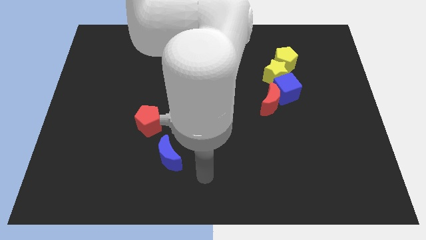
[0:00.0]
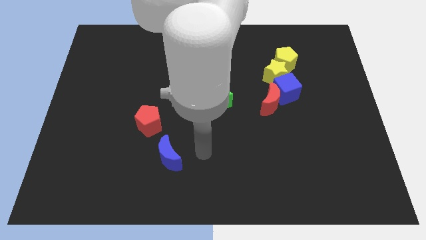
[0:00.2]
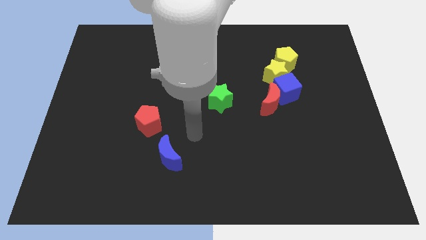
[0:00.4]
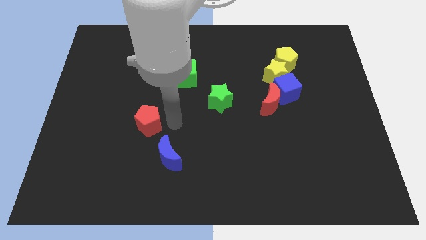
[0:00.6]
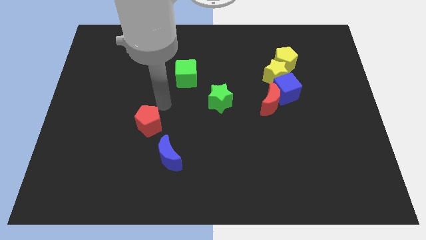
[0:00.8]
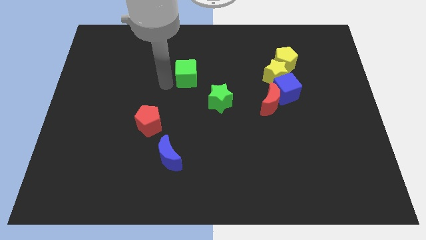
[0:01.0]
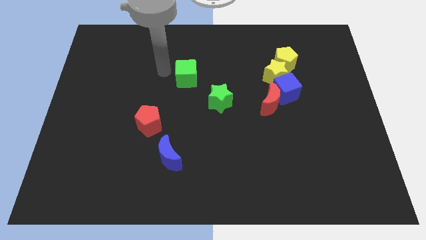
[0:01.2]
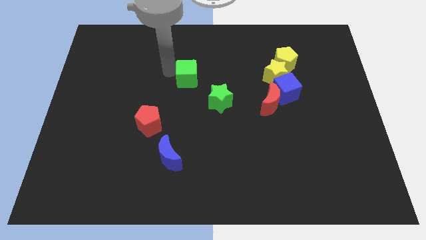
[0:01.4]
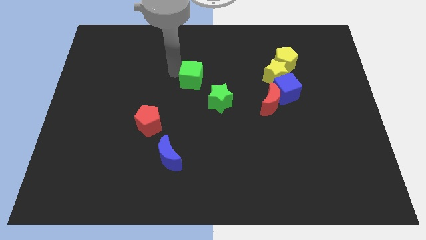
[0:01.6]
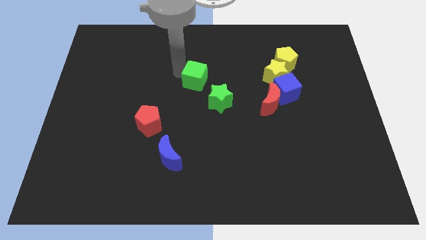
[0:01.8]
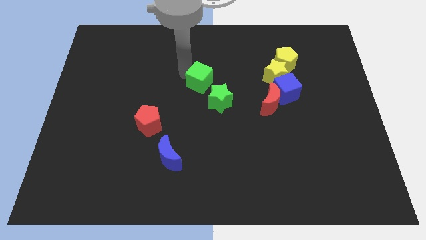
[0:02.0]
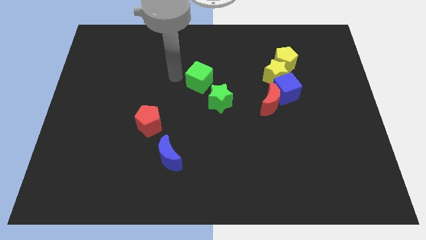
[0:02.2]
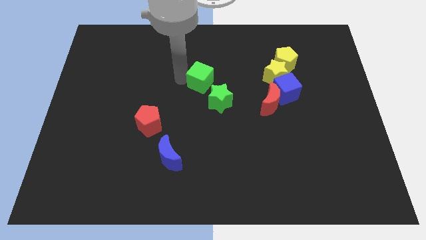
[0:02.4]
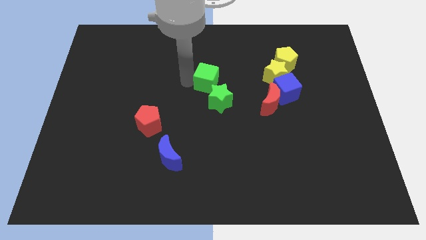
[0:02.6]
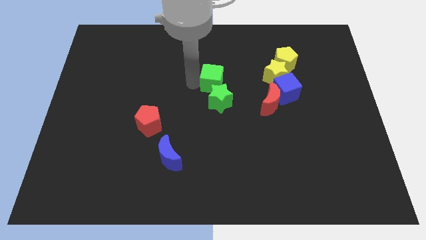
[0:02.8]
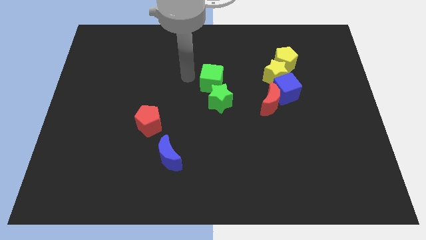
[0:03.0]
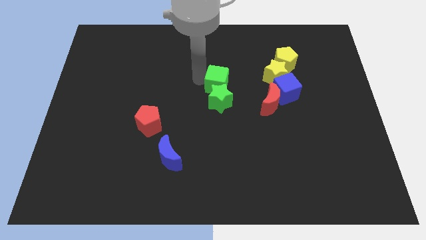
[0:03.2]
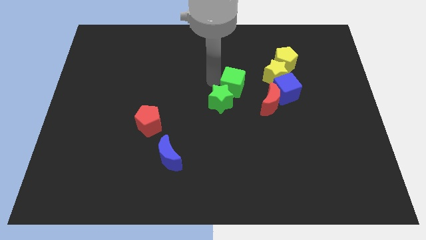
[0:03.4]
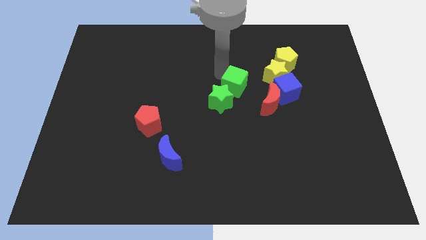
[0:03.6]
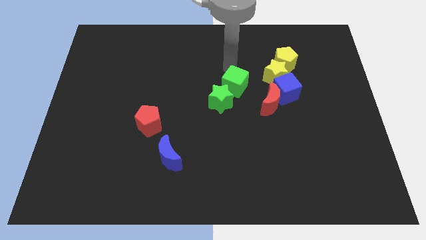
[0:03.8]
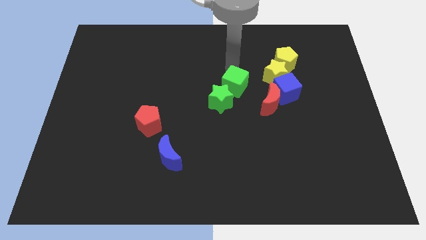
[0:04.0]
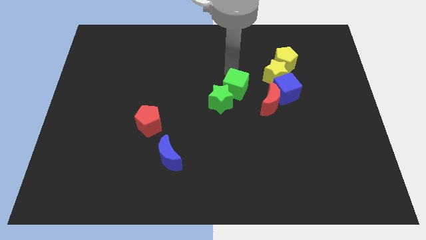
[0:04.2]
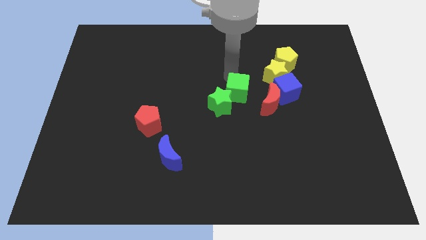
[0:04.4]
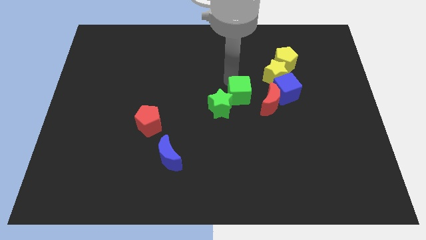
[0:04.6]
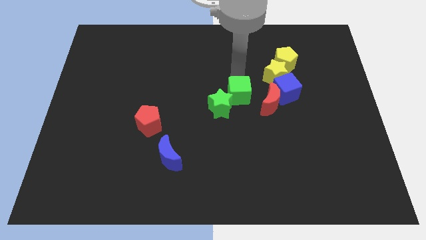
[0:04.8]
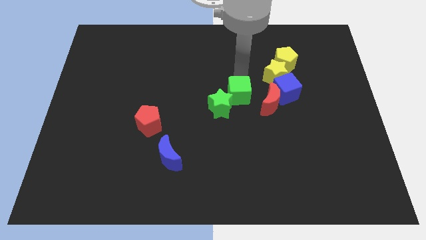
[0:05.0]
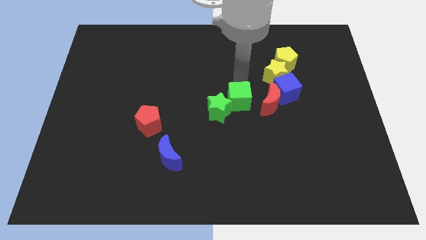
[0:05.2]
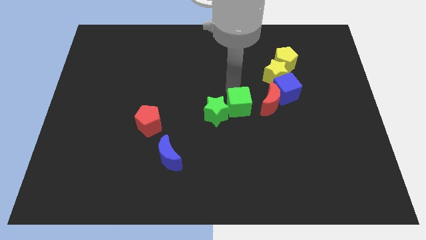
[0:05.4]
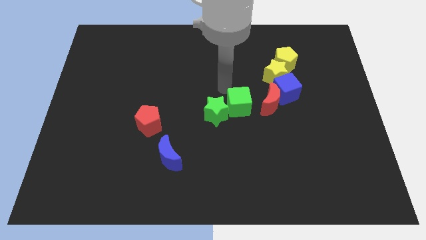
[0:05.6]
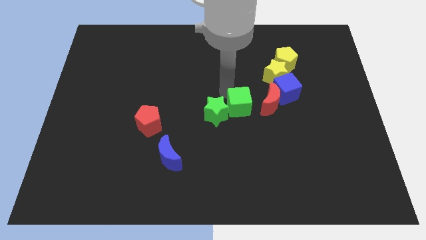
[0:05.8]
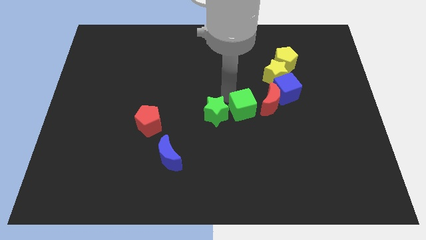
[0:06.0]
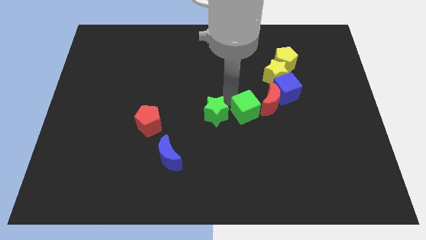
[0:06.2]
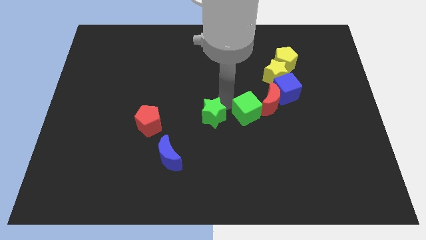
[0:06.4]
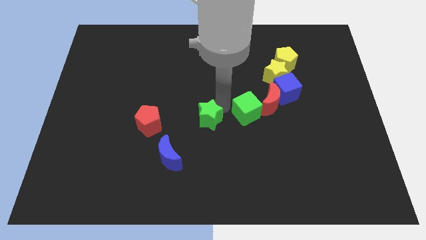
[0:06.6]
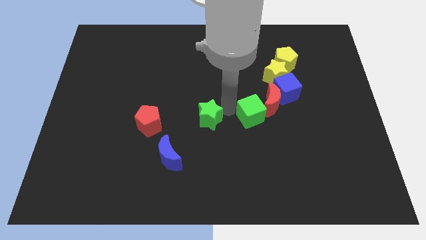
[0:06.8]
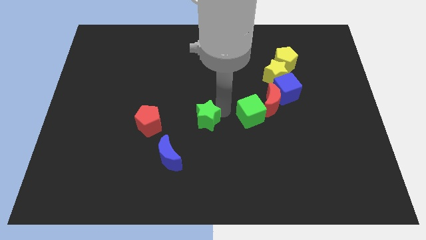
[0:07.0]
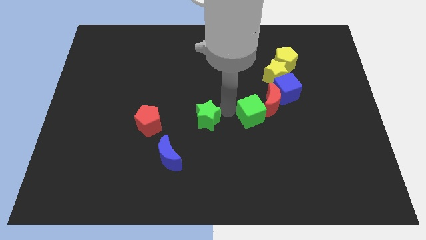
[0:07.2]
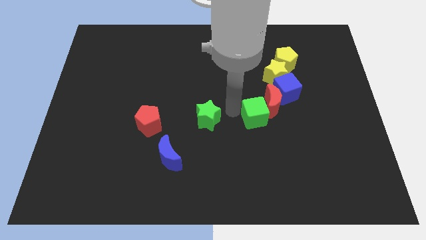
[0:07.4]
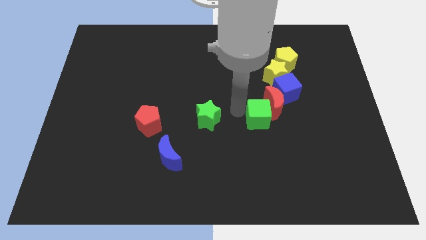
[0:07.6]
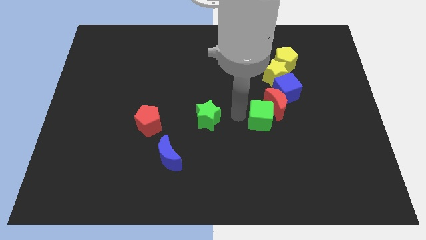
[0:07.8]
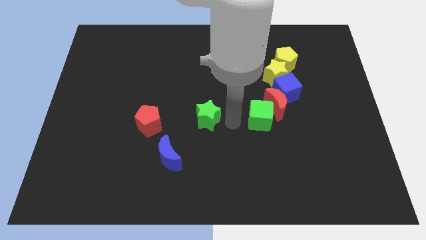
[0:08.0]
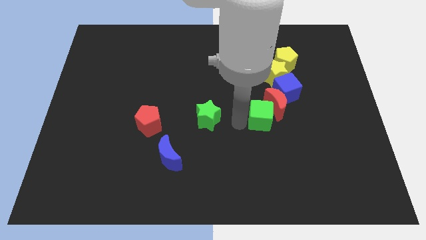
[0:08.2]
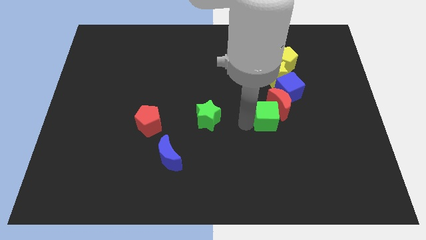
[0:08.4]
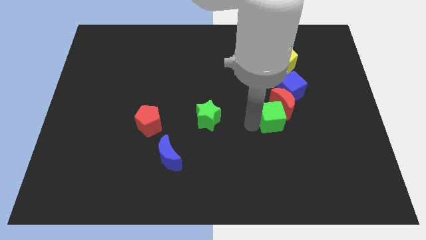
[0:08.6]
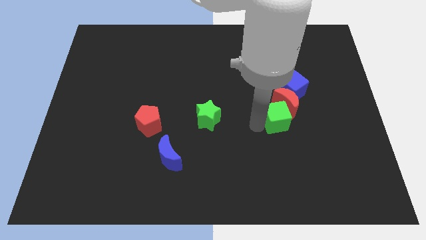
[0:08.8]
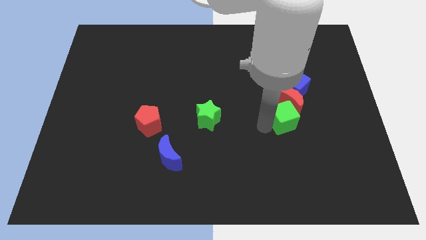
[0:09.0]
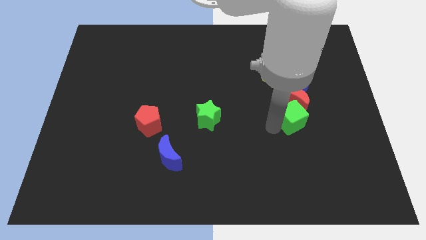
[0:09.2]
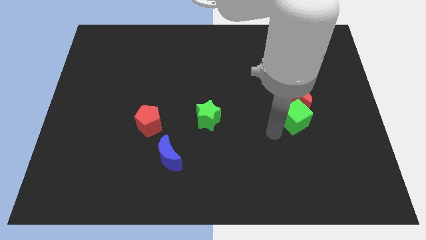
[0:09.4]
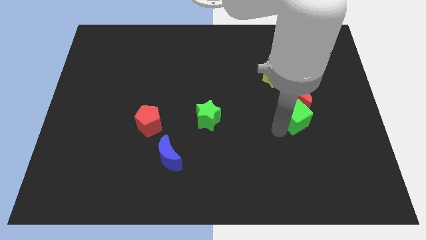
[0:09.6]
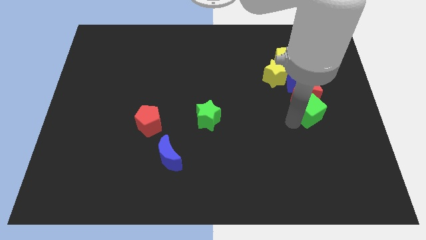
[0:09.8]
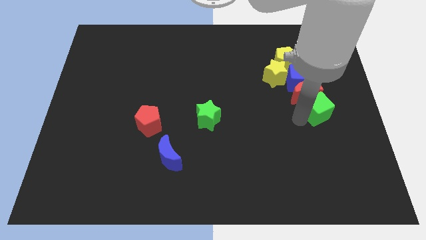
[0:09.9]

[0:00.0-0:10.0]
put the green cube diagonally down and to the right of the blue cube

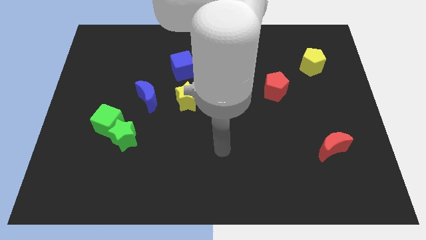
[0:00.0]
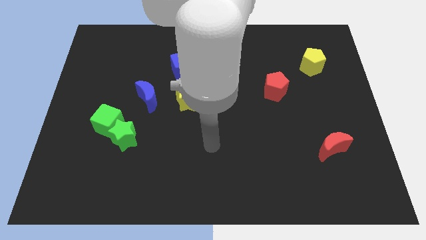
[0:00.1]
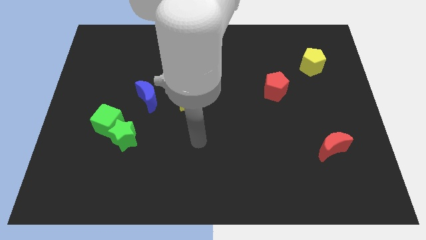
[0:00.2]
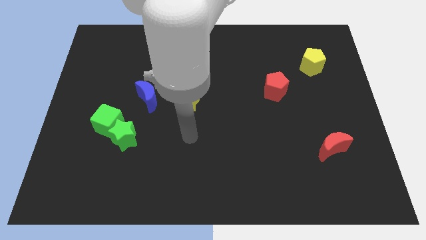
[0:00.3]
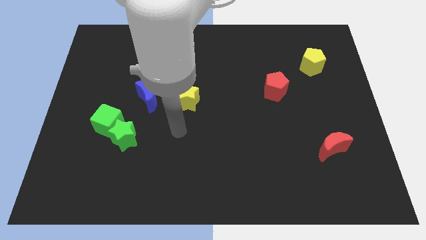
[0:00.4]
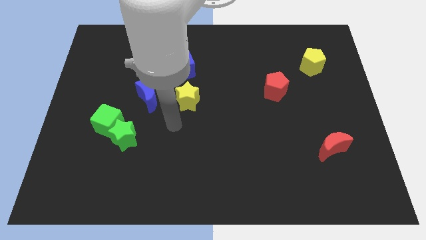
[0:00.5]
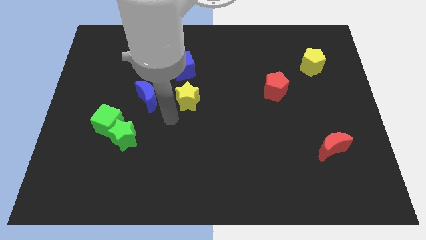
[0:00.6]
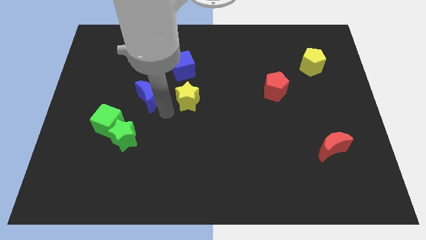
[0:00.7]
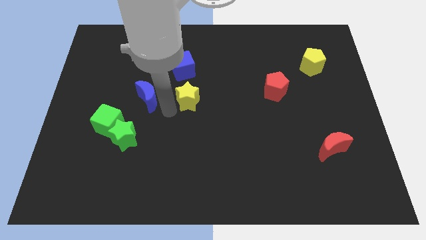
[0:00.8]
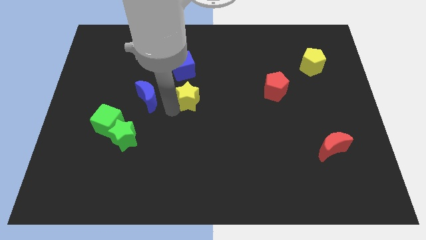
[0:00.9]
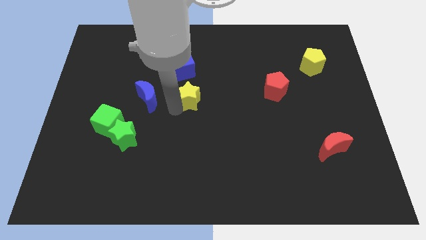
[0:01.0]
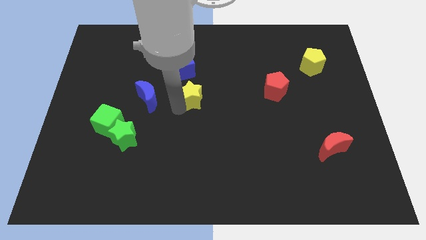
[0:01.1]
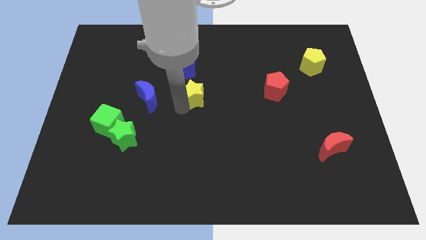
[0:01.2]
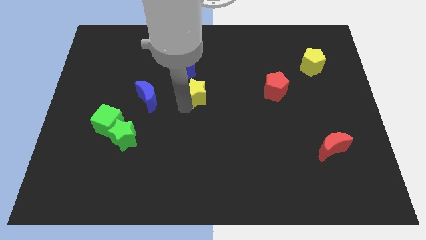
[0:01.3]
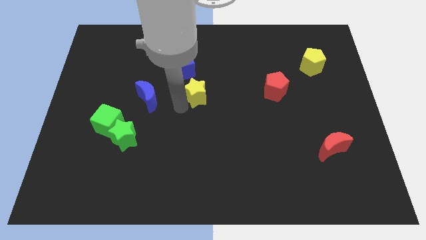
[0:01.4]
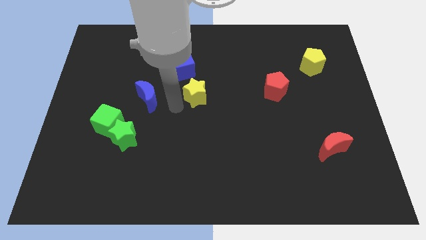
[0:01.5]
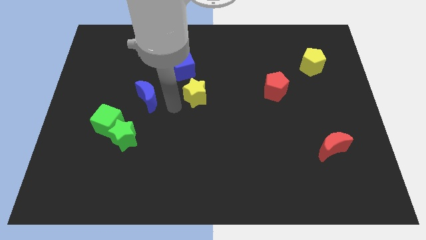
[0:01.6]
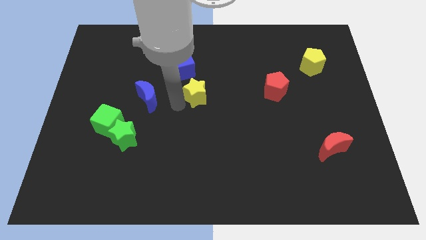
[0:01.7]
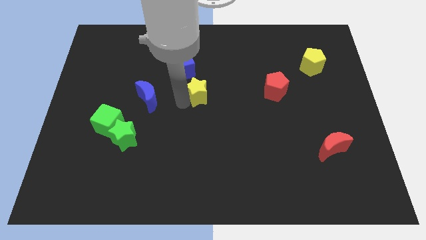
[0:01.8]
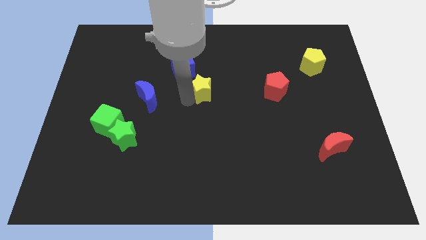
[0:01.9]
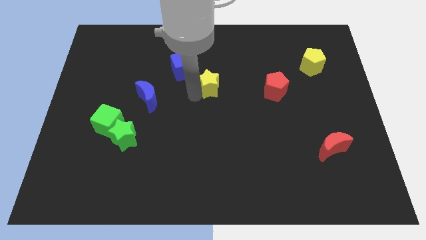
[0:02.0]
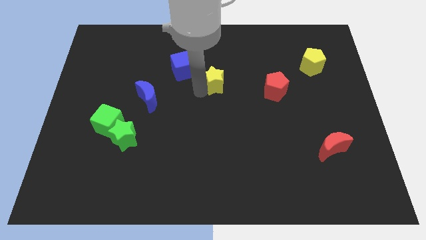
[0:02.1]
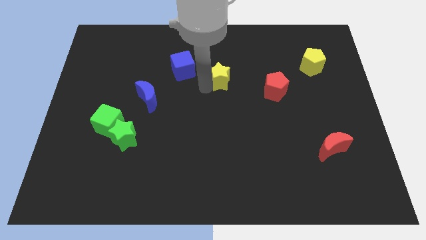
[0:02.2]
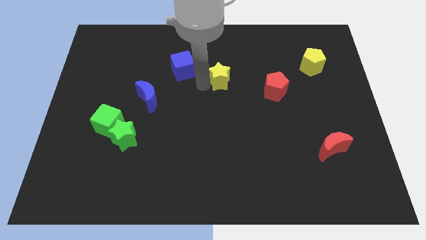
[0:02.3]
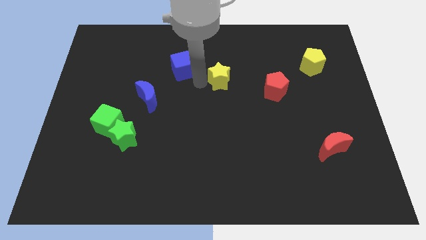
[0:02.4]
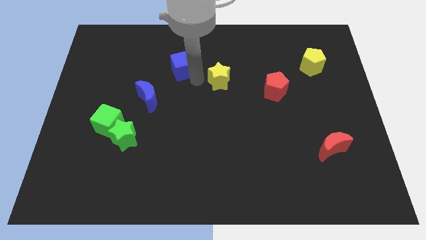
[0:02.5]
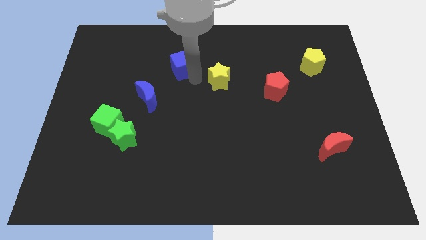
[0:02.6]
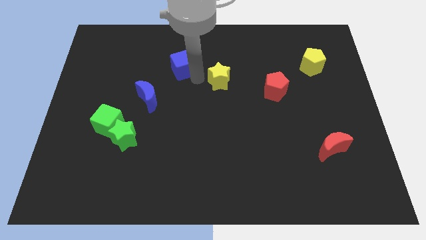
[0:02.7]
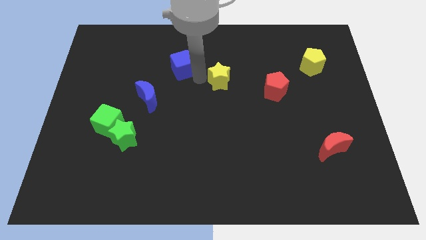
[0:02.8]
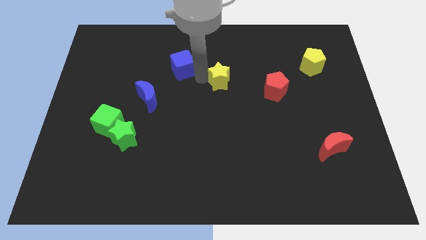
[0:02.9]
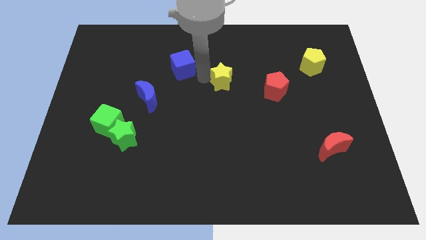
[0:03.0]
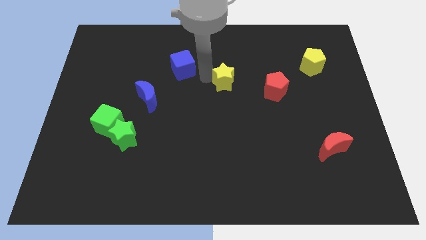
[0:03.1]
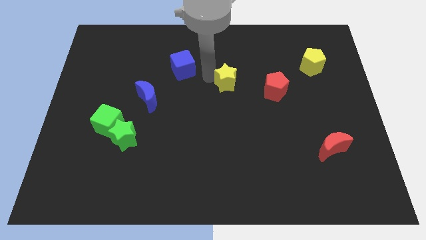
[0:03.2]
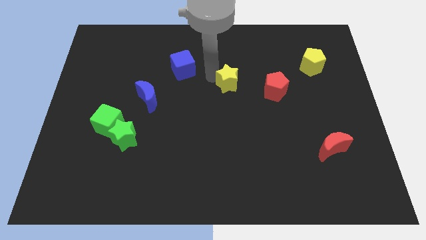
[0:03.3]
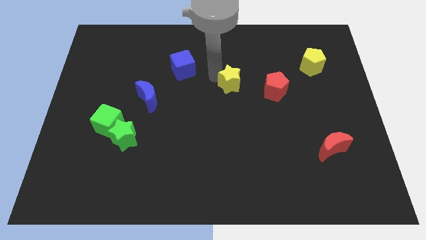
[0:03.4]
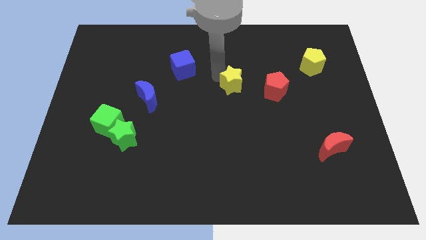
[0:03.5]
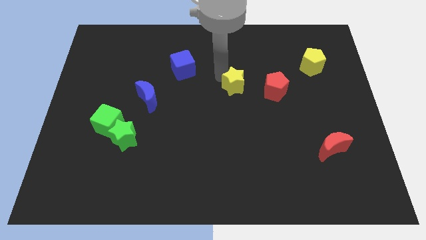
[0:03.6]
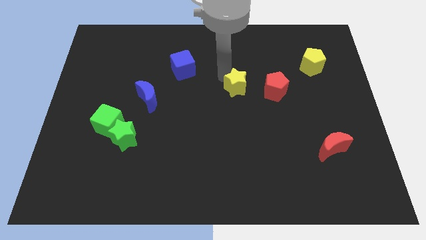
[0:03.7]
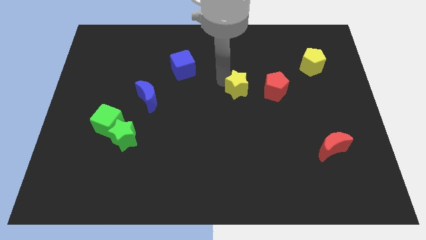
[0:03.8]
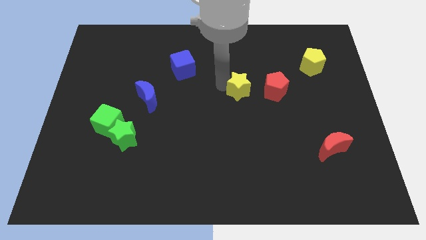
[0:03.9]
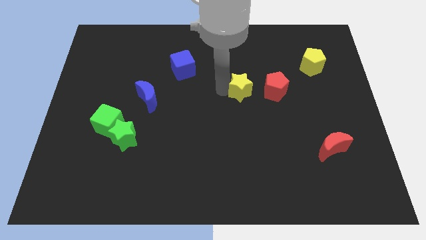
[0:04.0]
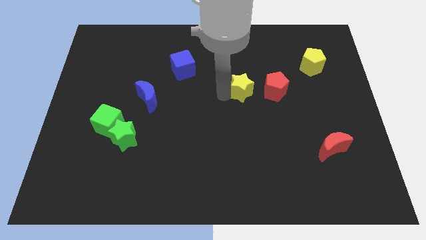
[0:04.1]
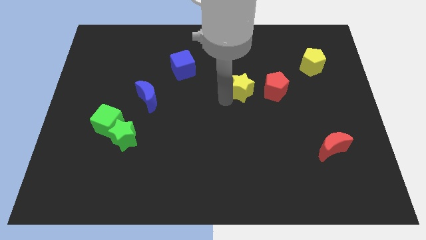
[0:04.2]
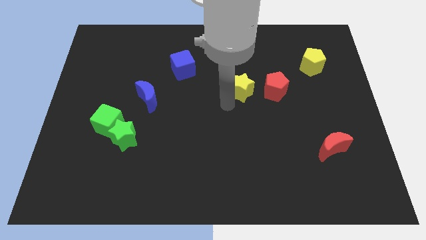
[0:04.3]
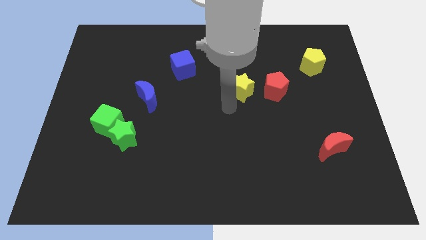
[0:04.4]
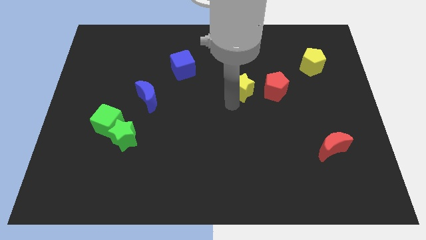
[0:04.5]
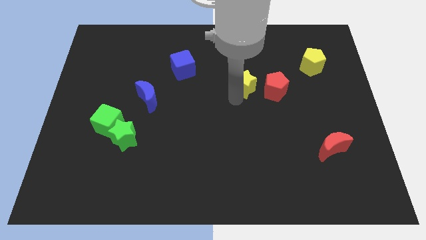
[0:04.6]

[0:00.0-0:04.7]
put the yellow star diagonally up and to the left of the red pentagon
